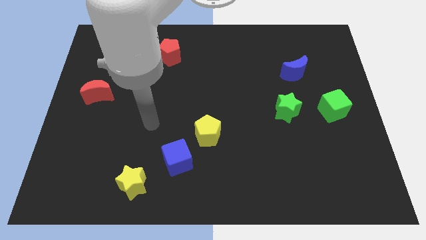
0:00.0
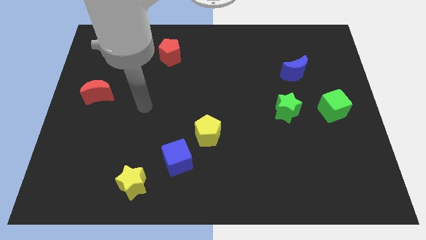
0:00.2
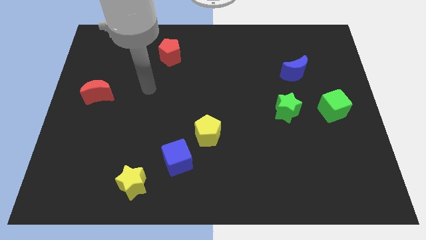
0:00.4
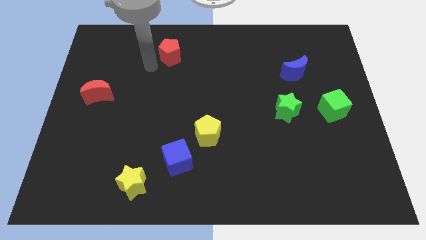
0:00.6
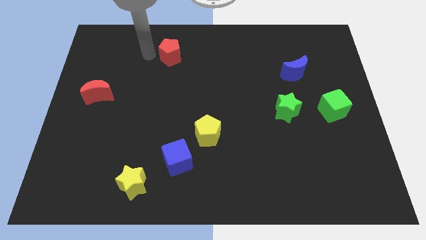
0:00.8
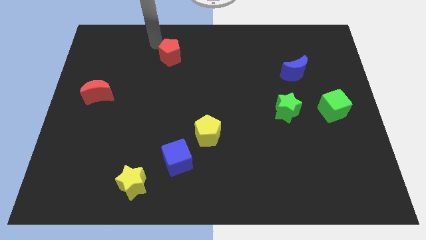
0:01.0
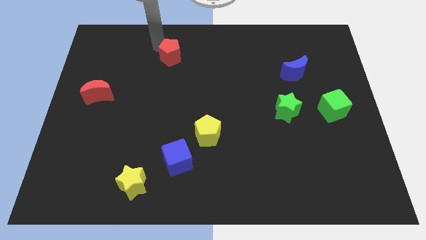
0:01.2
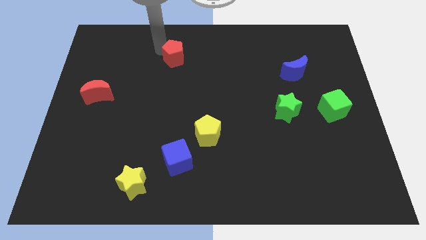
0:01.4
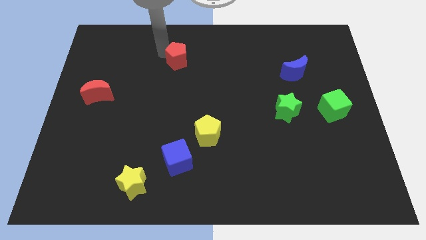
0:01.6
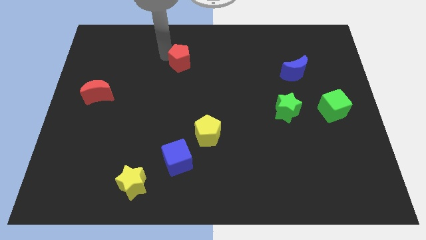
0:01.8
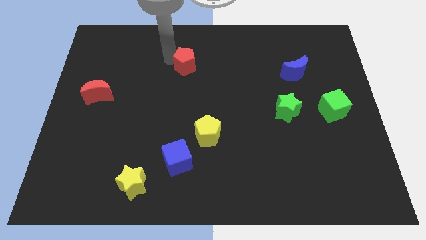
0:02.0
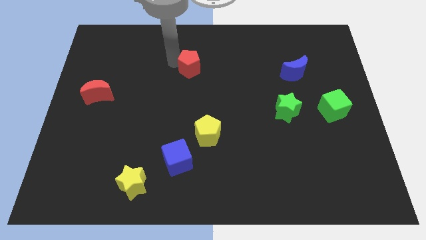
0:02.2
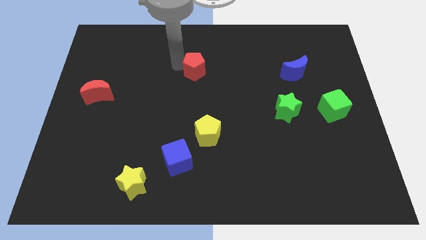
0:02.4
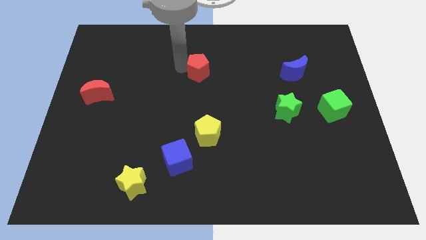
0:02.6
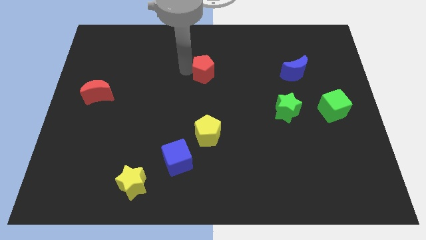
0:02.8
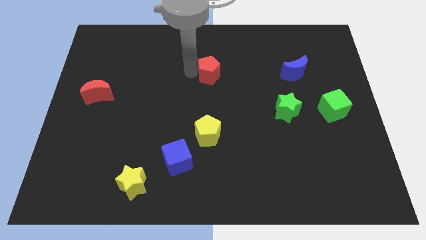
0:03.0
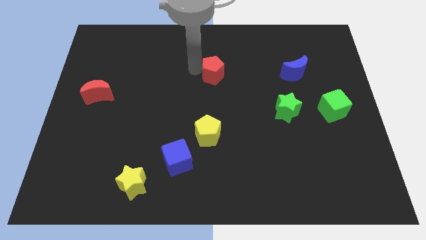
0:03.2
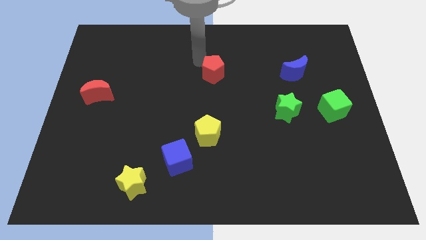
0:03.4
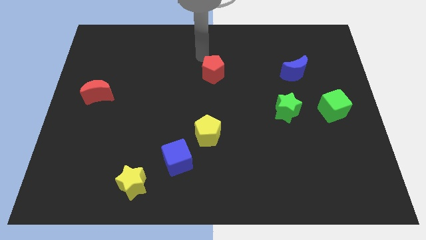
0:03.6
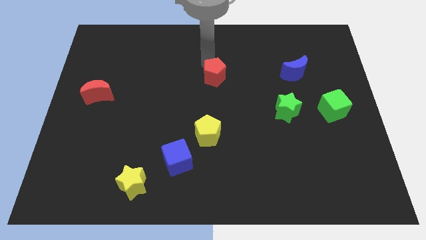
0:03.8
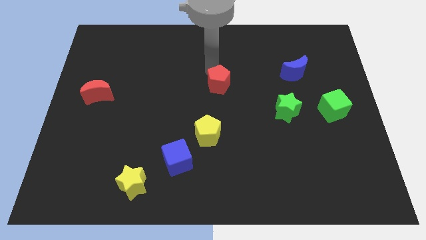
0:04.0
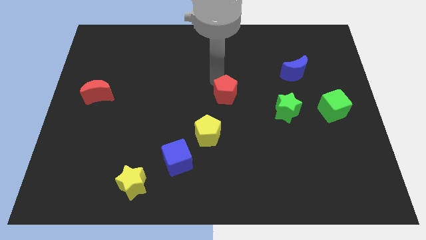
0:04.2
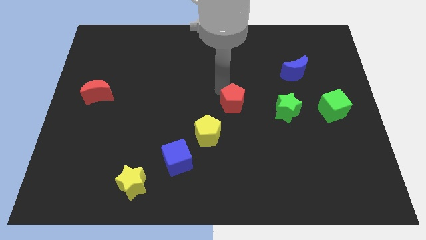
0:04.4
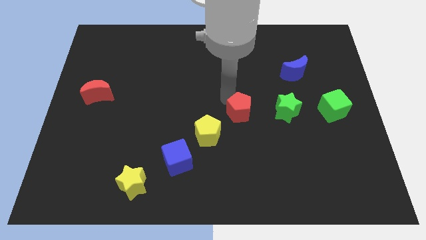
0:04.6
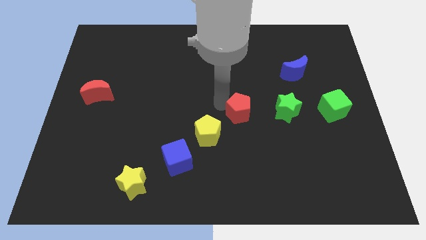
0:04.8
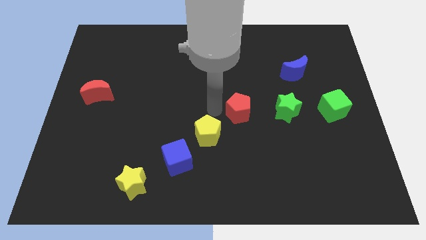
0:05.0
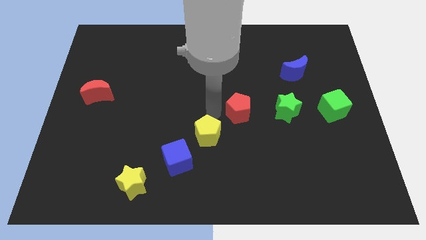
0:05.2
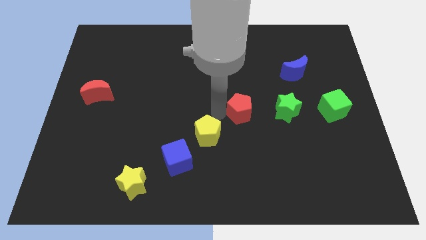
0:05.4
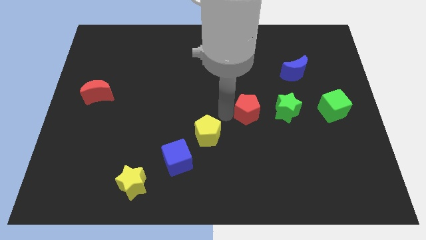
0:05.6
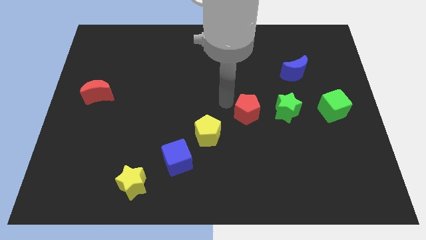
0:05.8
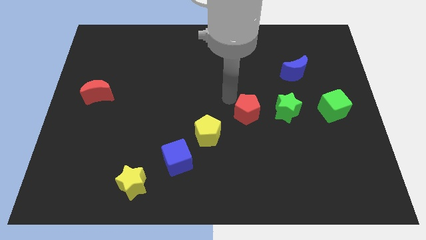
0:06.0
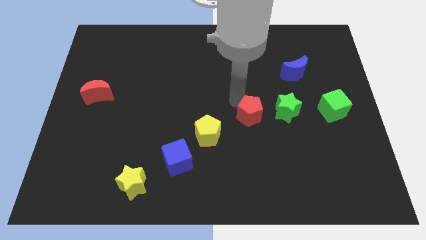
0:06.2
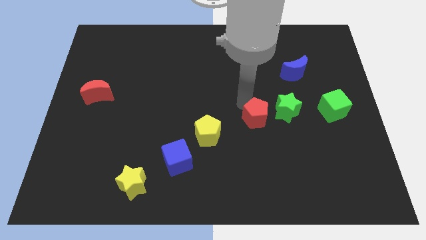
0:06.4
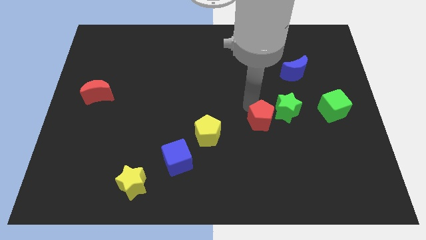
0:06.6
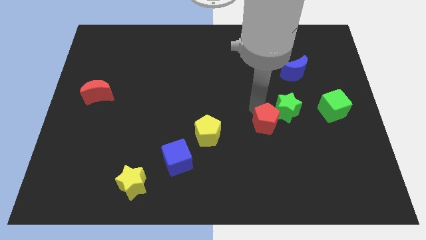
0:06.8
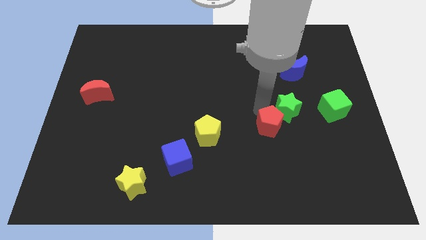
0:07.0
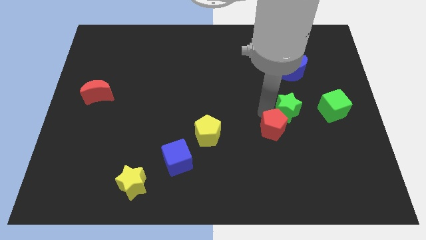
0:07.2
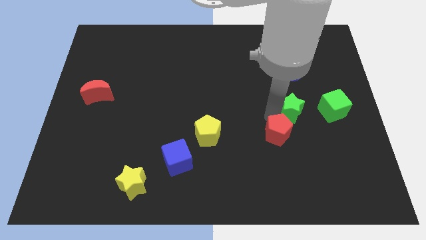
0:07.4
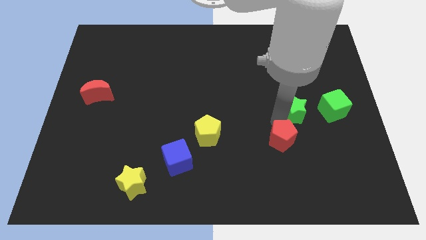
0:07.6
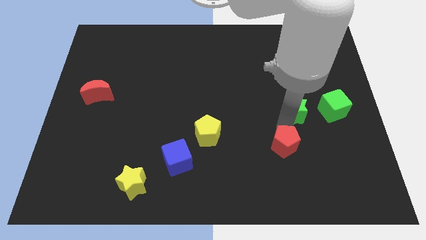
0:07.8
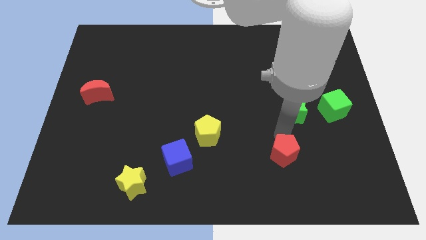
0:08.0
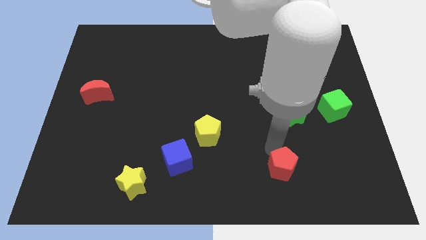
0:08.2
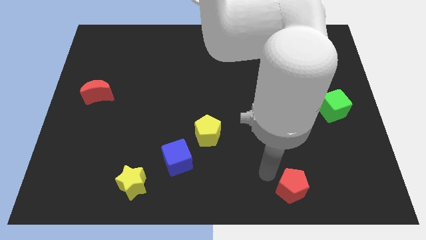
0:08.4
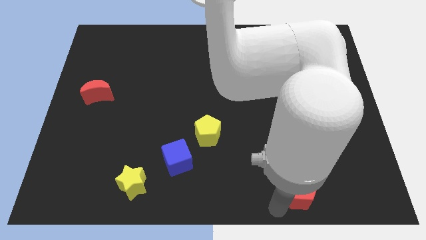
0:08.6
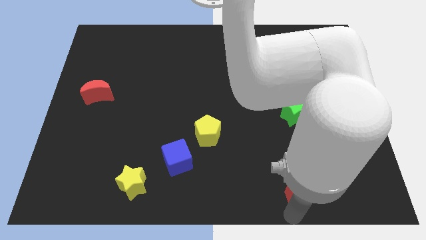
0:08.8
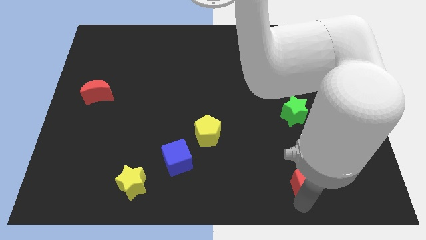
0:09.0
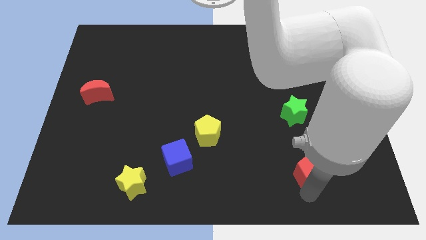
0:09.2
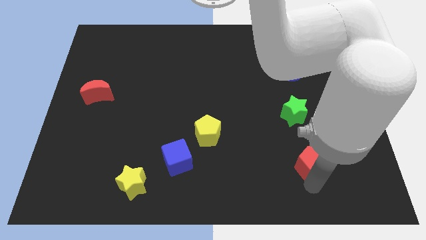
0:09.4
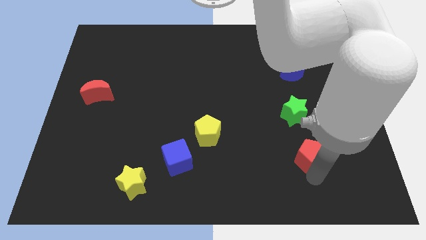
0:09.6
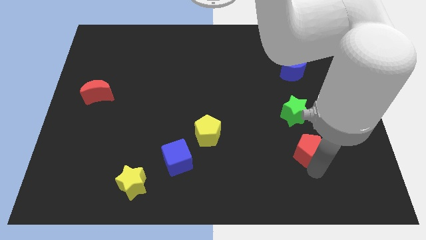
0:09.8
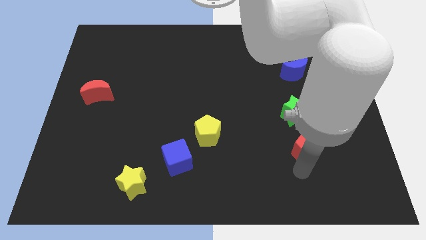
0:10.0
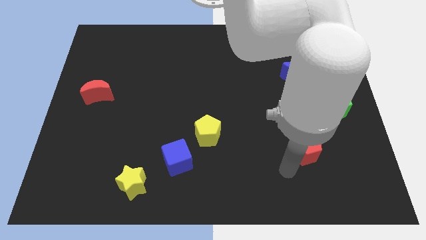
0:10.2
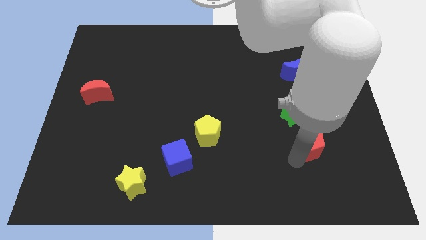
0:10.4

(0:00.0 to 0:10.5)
put the red pentagon diagonally down and to the right of the green star
